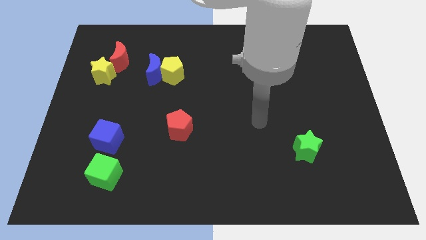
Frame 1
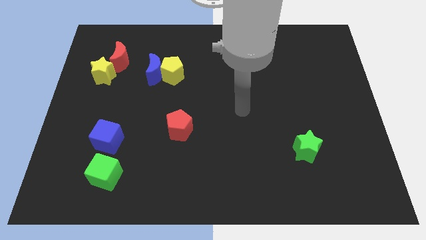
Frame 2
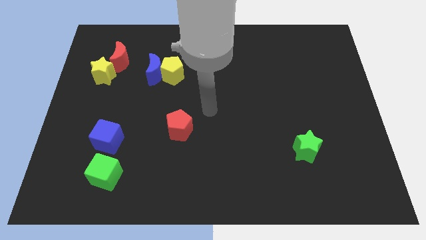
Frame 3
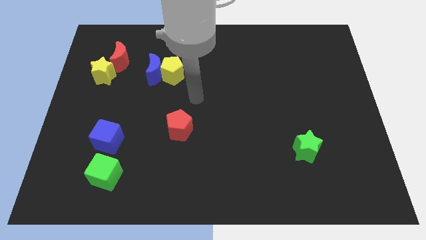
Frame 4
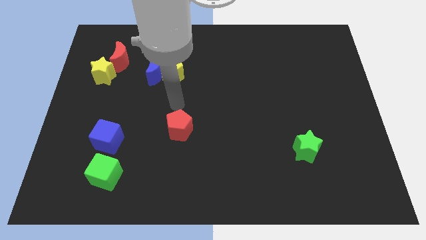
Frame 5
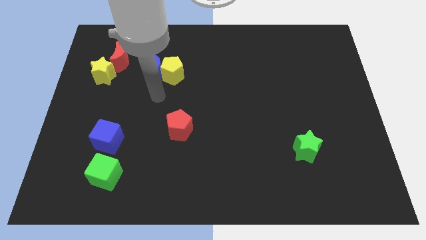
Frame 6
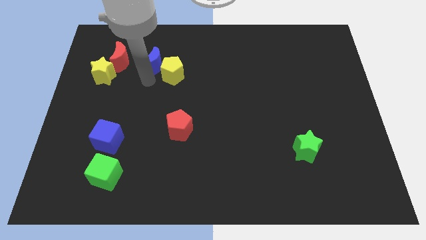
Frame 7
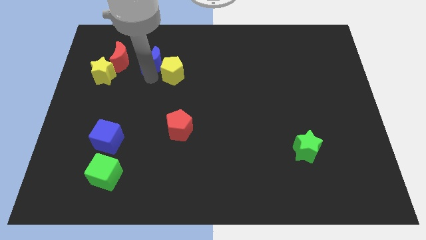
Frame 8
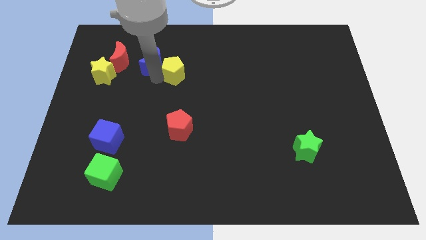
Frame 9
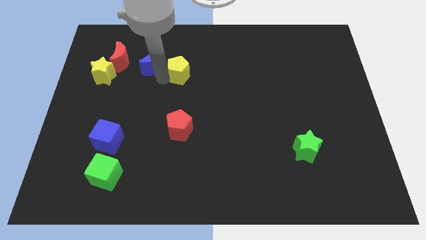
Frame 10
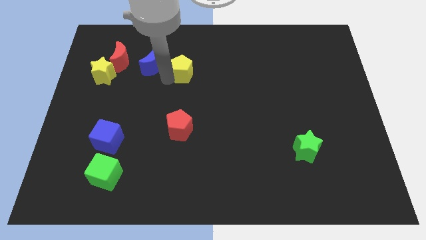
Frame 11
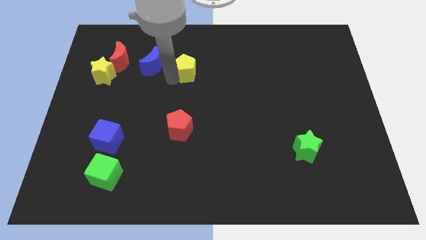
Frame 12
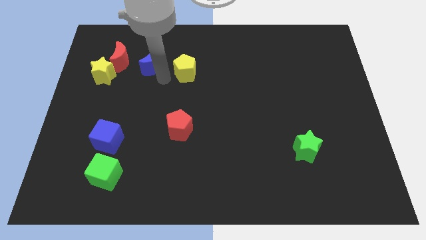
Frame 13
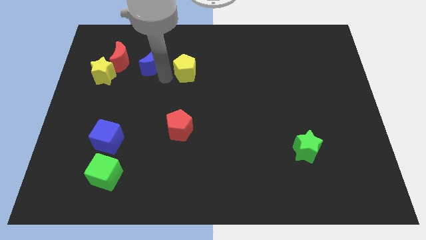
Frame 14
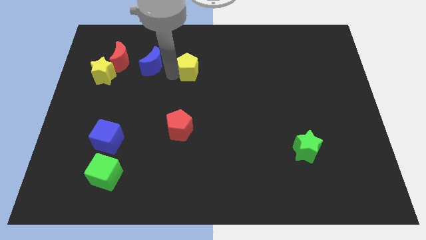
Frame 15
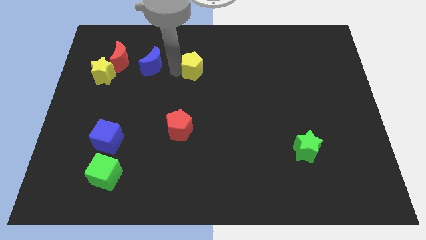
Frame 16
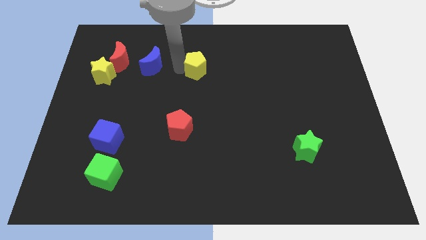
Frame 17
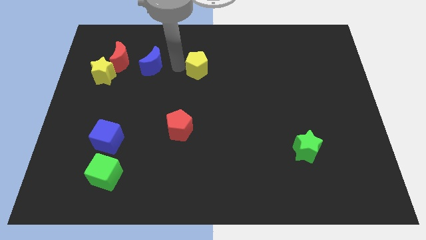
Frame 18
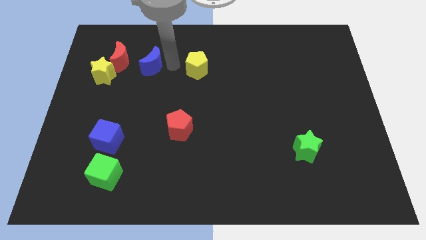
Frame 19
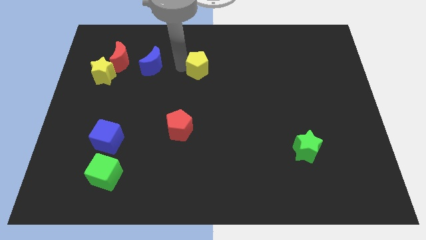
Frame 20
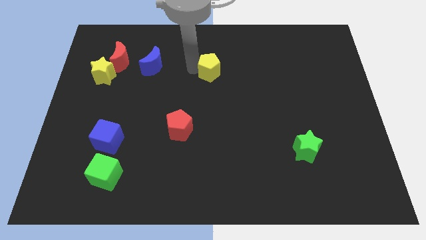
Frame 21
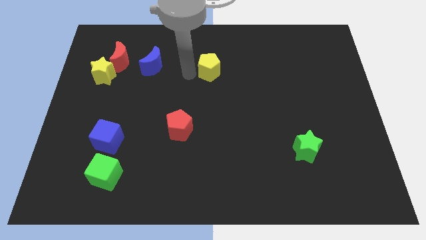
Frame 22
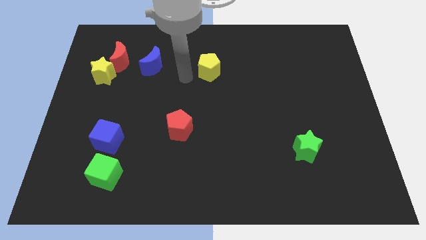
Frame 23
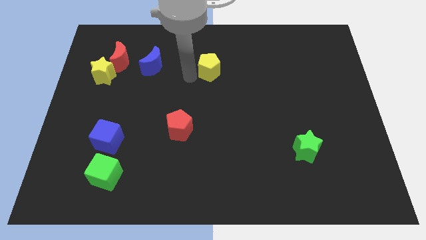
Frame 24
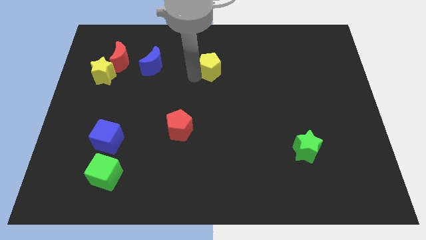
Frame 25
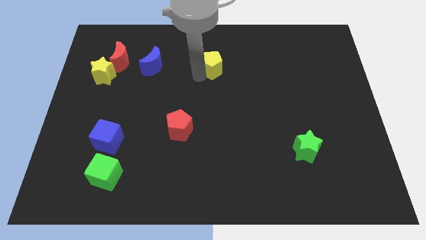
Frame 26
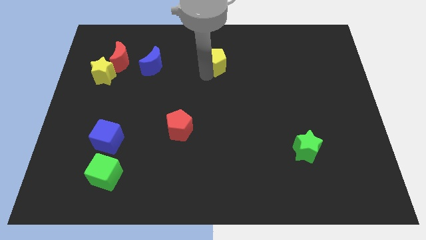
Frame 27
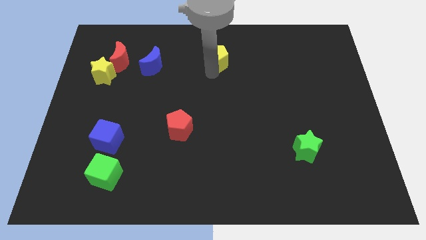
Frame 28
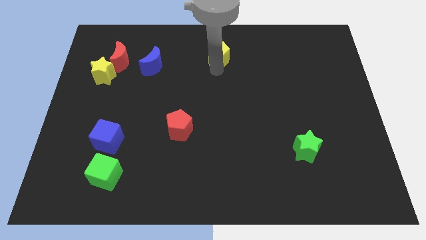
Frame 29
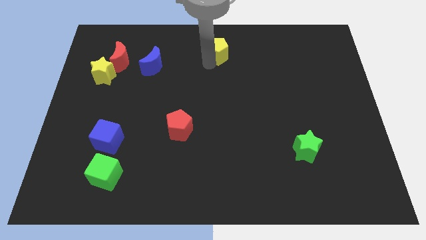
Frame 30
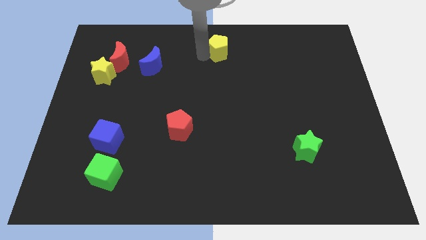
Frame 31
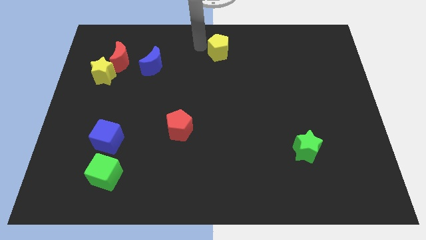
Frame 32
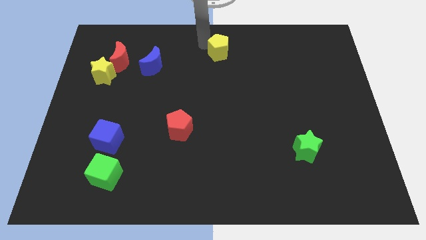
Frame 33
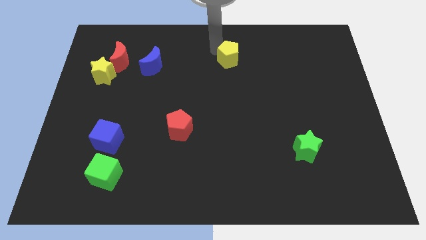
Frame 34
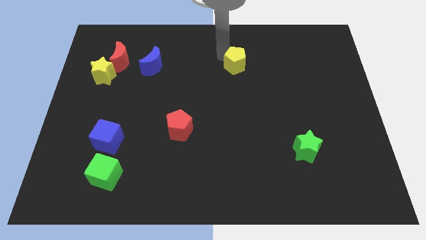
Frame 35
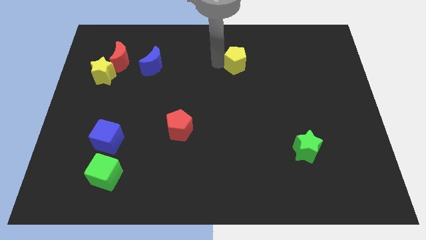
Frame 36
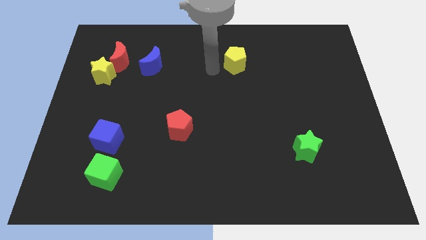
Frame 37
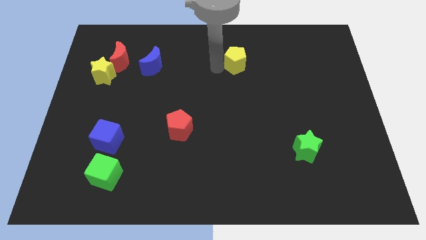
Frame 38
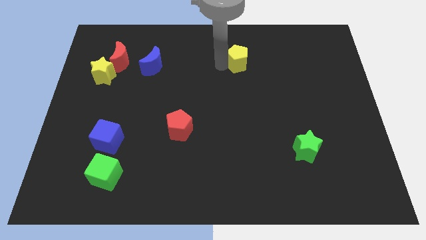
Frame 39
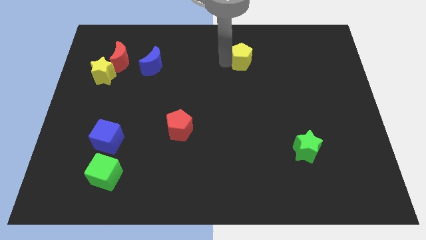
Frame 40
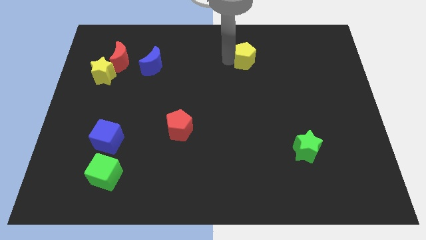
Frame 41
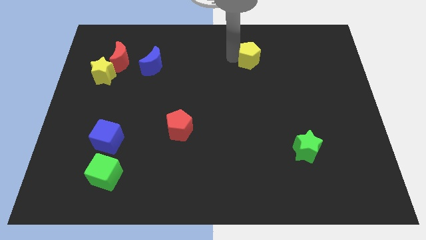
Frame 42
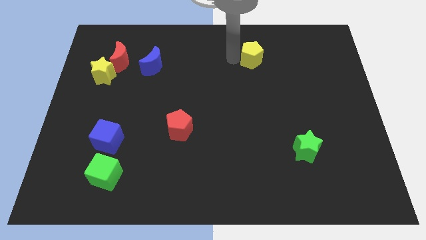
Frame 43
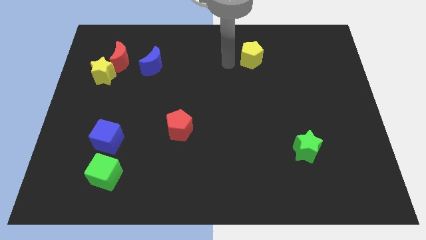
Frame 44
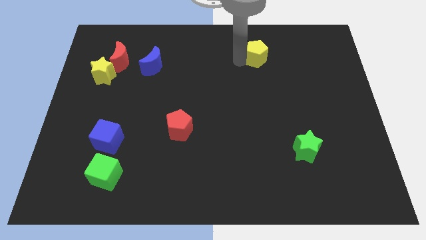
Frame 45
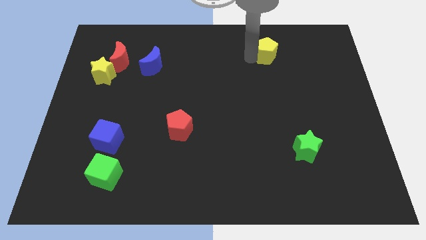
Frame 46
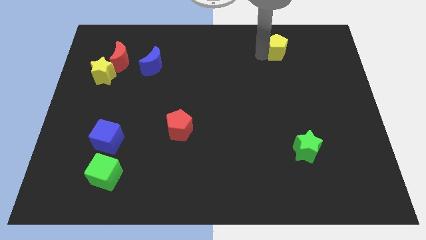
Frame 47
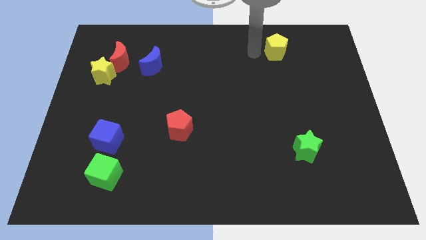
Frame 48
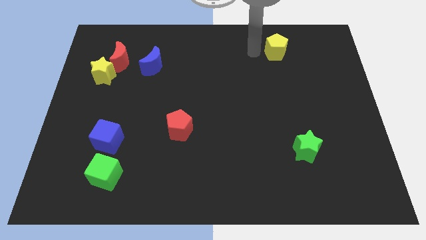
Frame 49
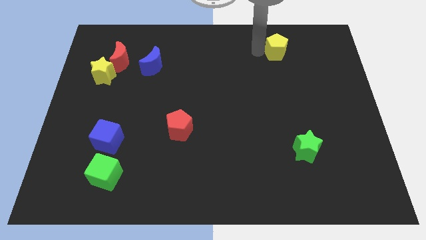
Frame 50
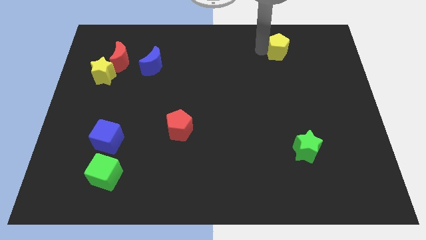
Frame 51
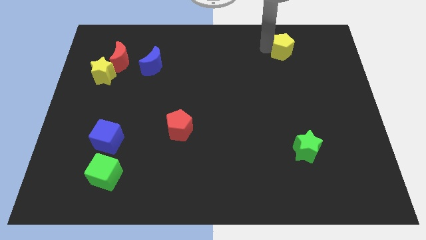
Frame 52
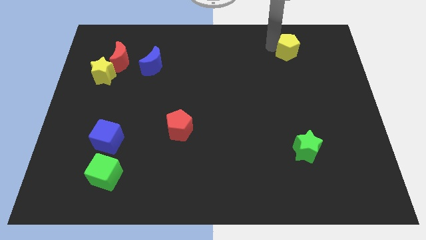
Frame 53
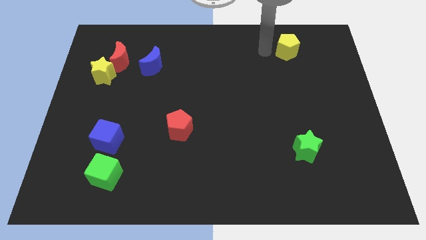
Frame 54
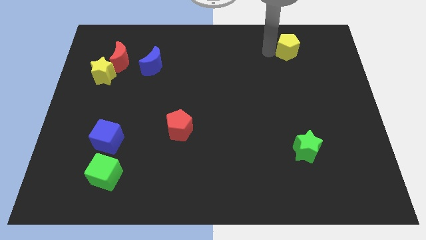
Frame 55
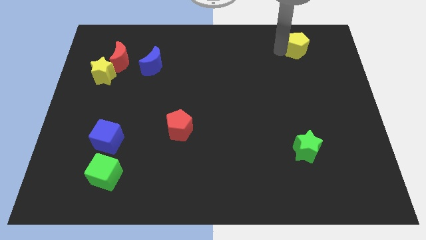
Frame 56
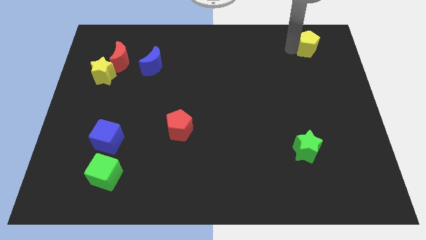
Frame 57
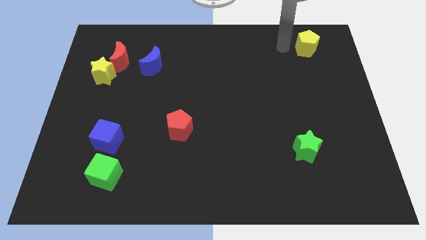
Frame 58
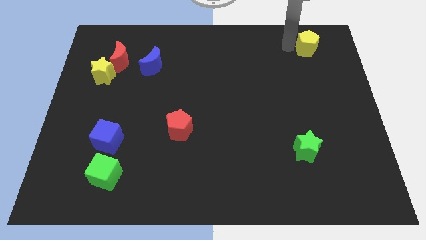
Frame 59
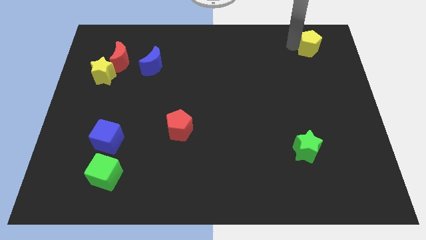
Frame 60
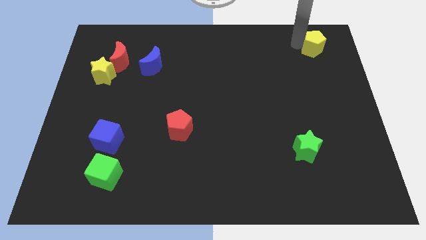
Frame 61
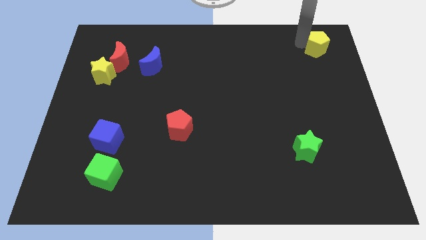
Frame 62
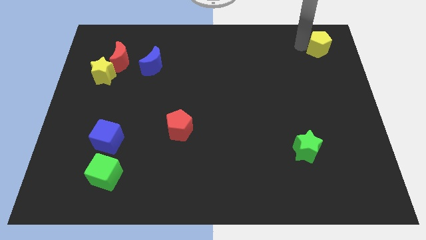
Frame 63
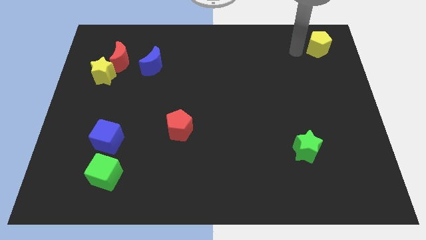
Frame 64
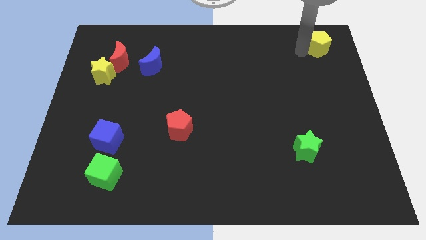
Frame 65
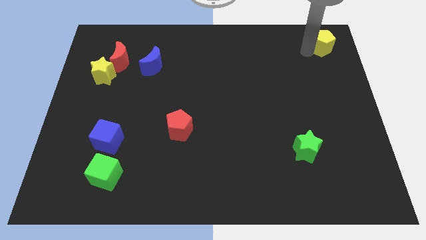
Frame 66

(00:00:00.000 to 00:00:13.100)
move the yellow pentagon to the top right
